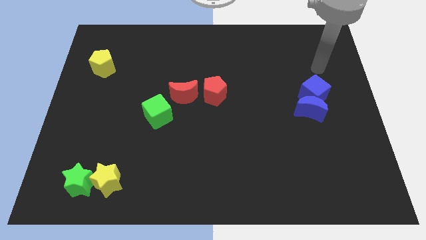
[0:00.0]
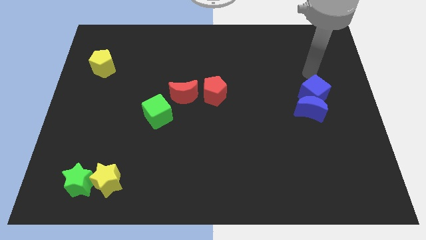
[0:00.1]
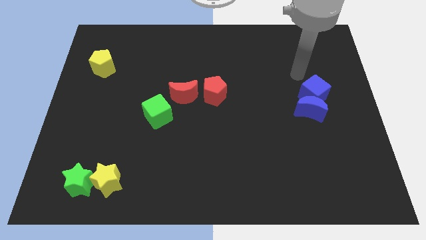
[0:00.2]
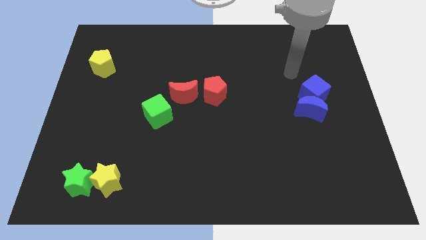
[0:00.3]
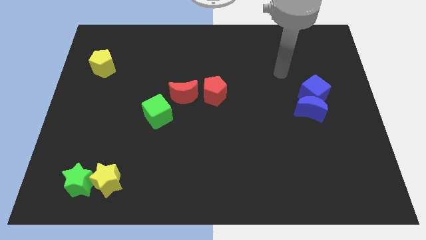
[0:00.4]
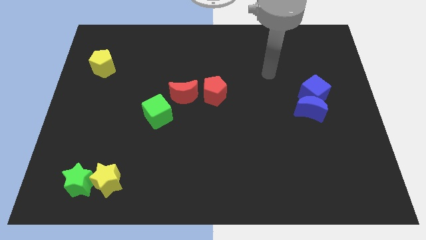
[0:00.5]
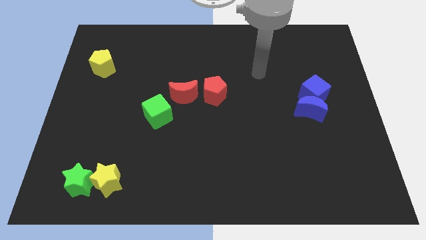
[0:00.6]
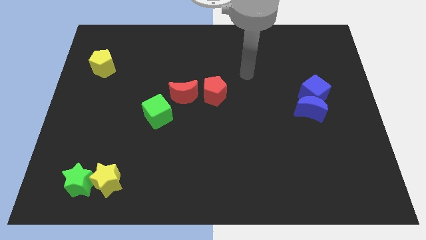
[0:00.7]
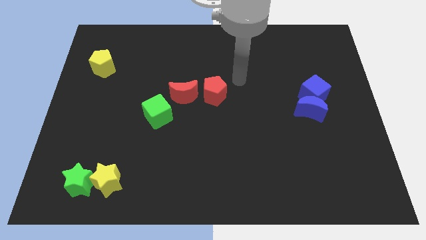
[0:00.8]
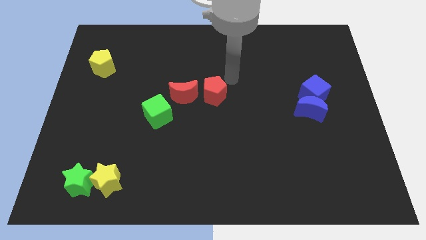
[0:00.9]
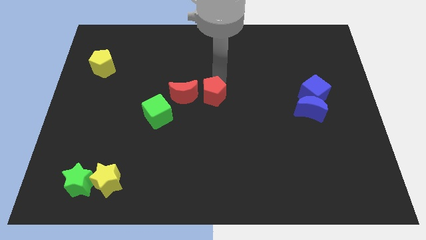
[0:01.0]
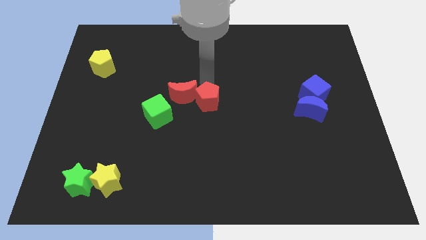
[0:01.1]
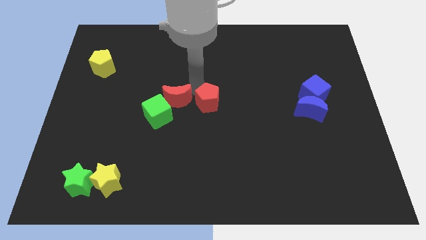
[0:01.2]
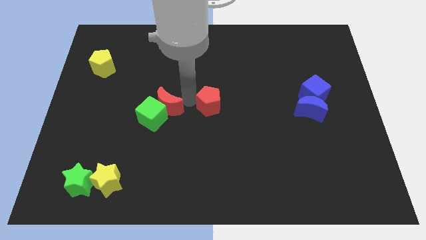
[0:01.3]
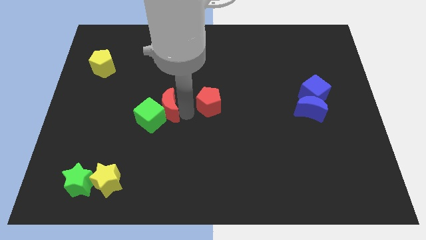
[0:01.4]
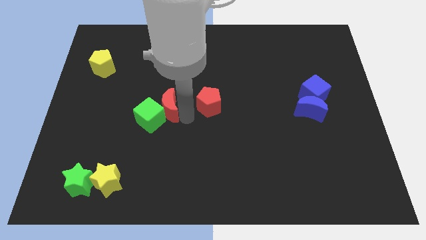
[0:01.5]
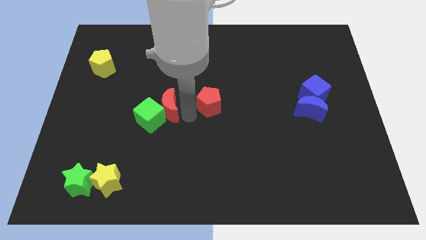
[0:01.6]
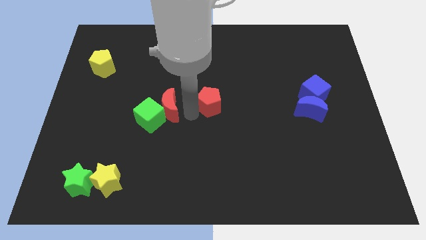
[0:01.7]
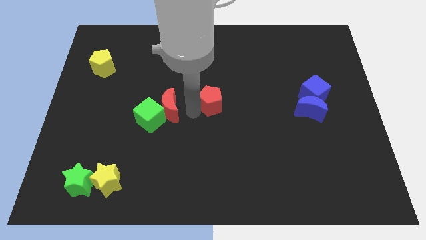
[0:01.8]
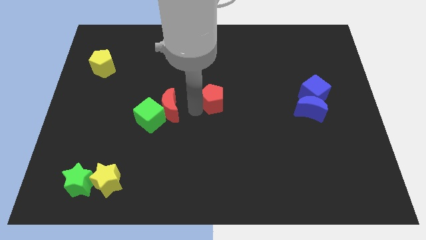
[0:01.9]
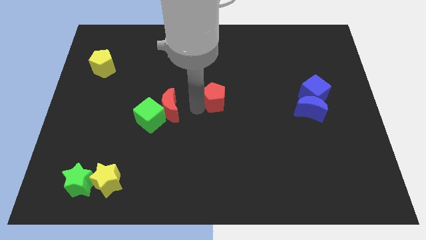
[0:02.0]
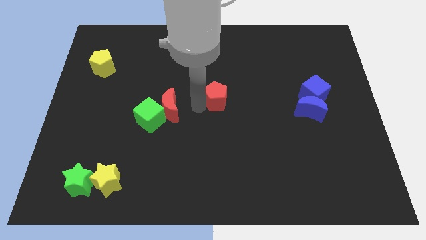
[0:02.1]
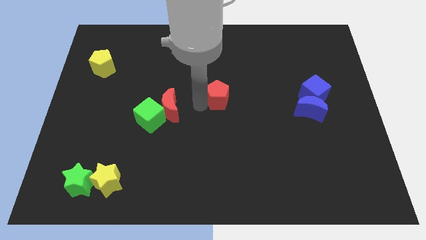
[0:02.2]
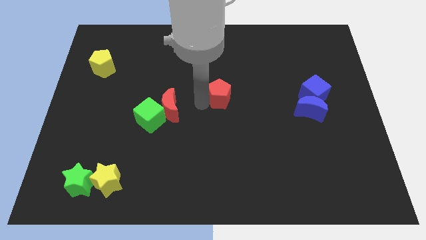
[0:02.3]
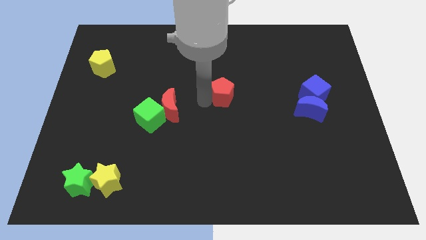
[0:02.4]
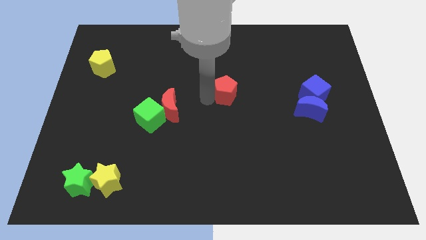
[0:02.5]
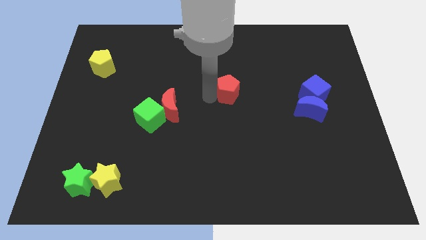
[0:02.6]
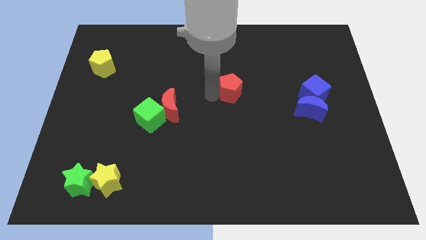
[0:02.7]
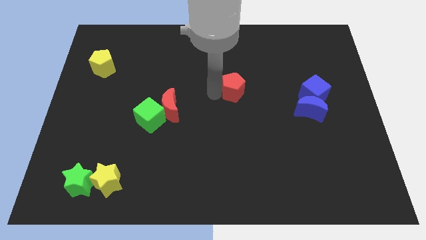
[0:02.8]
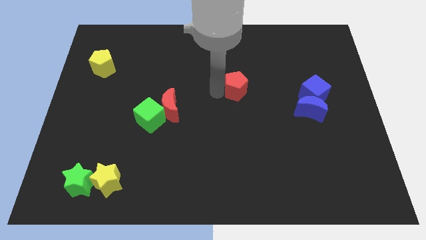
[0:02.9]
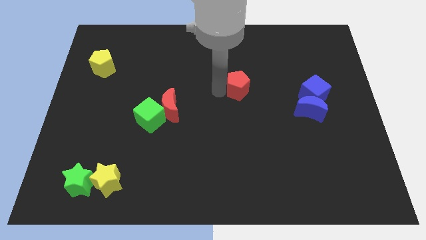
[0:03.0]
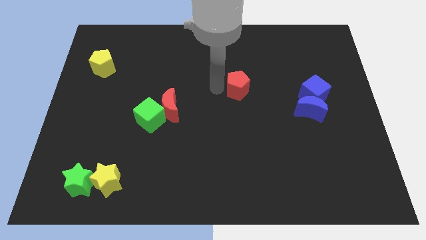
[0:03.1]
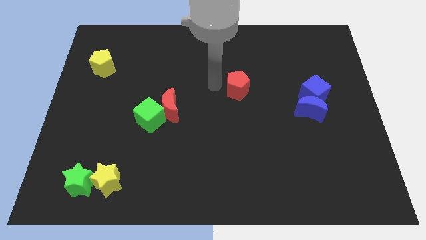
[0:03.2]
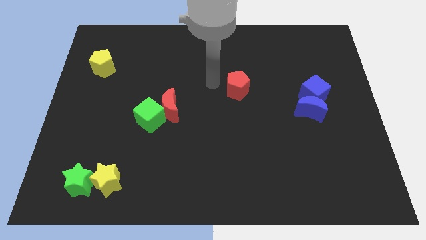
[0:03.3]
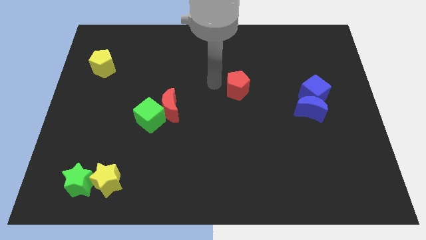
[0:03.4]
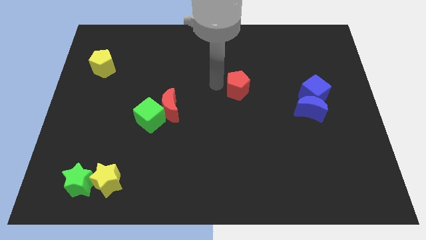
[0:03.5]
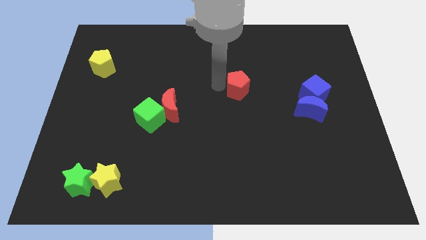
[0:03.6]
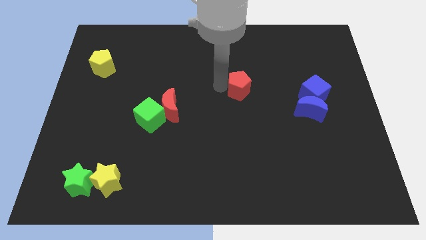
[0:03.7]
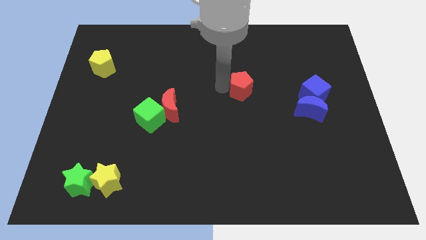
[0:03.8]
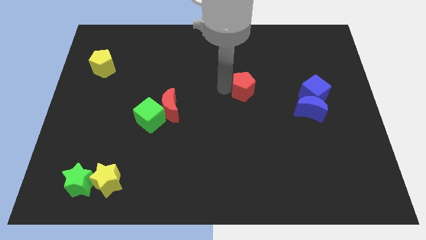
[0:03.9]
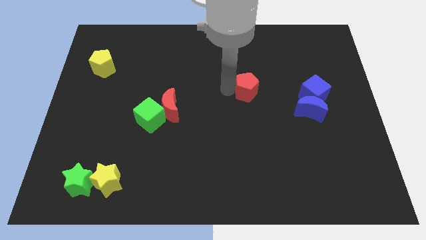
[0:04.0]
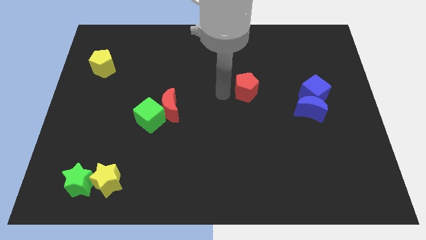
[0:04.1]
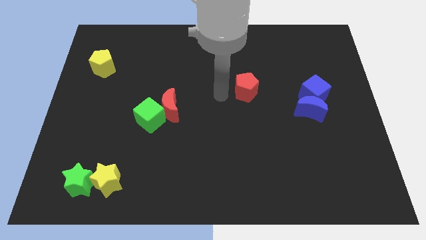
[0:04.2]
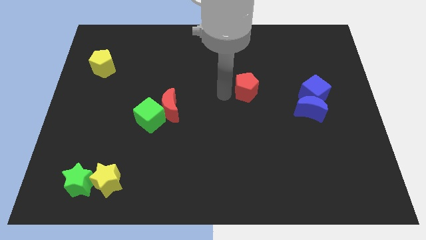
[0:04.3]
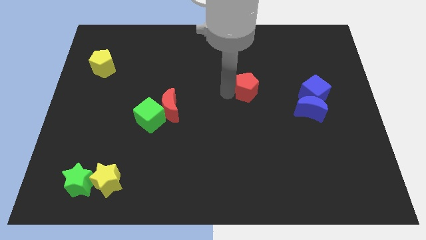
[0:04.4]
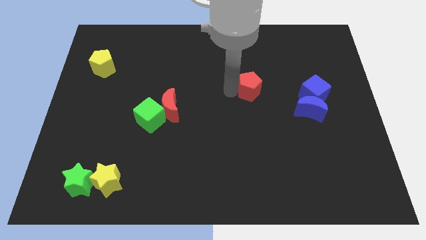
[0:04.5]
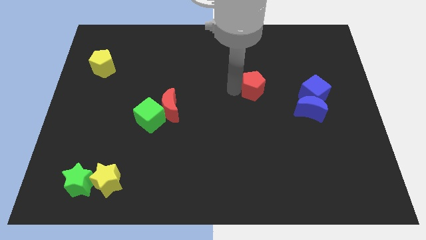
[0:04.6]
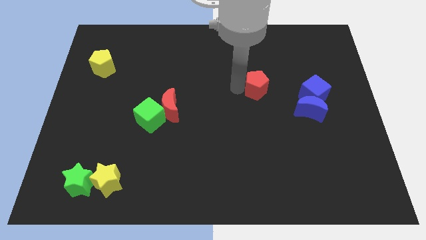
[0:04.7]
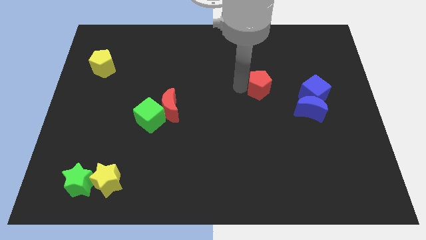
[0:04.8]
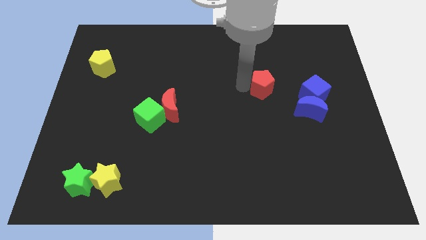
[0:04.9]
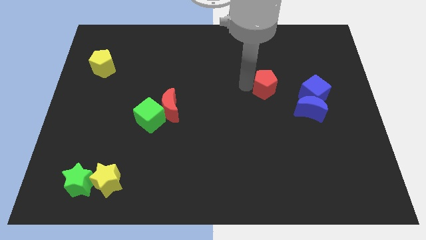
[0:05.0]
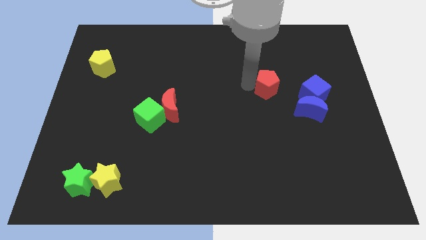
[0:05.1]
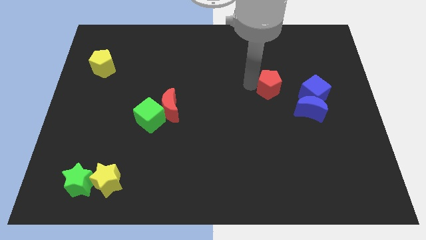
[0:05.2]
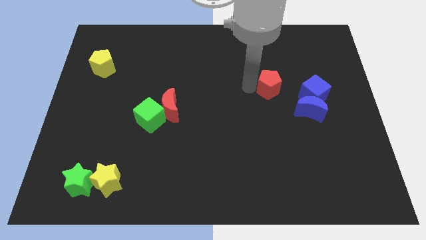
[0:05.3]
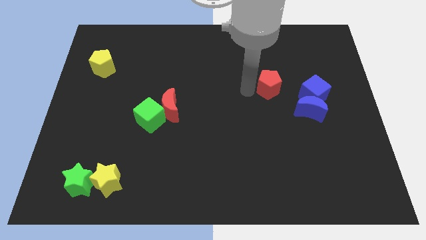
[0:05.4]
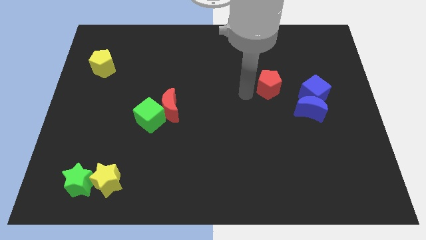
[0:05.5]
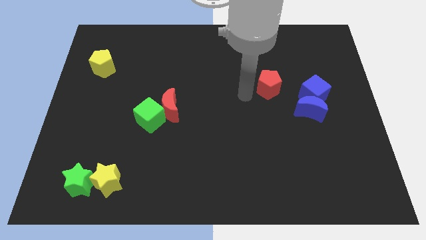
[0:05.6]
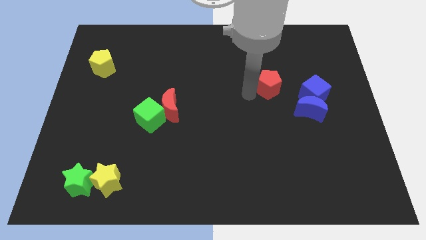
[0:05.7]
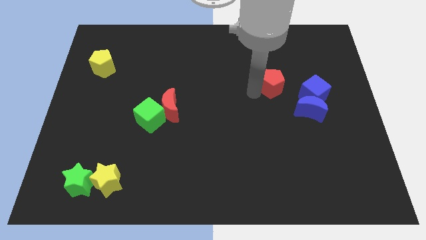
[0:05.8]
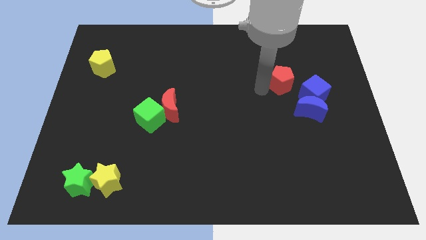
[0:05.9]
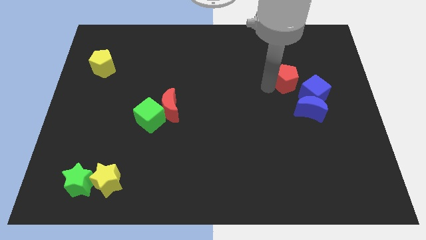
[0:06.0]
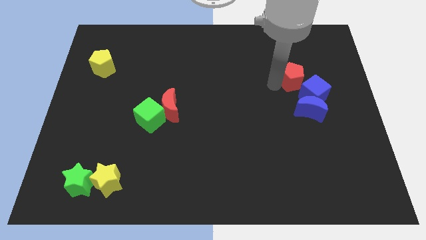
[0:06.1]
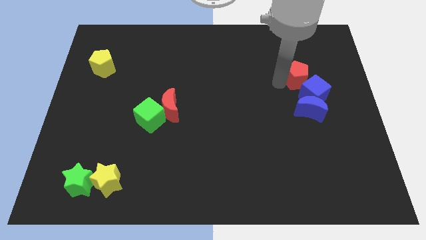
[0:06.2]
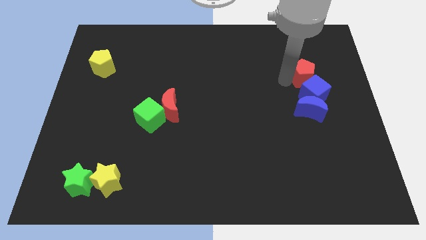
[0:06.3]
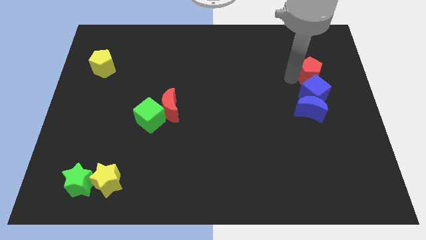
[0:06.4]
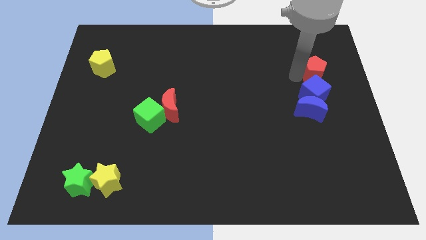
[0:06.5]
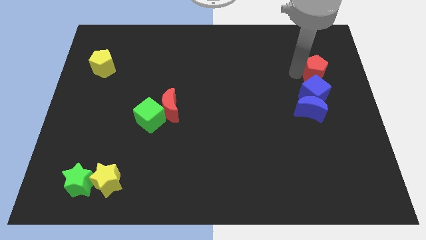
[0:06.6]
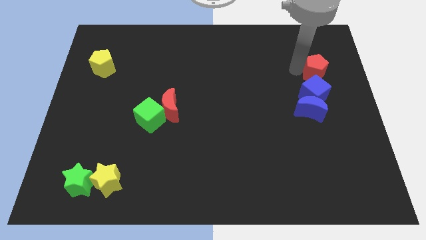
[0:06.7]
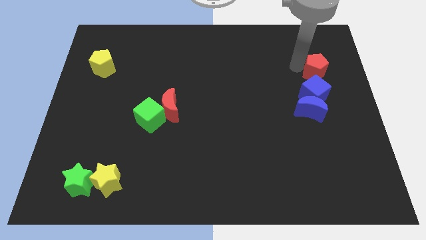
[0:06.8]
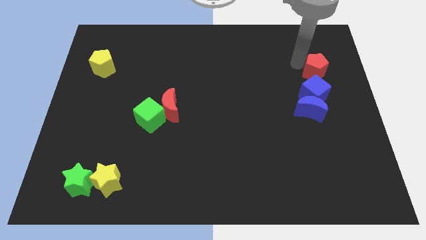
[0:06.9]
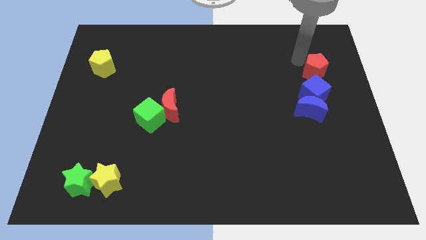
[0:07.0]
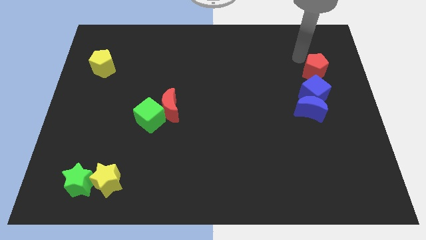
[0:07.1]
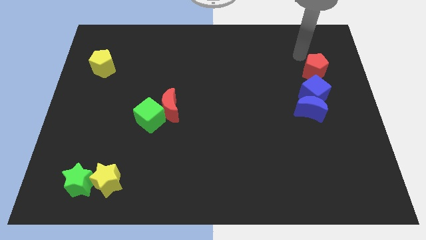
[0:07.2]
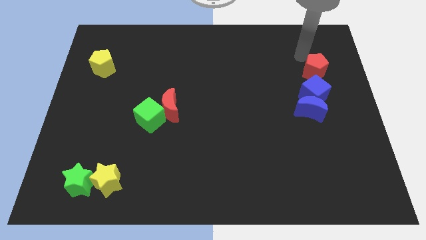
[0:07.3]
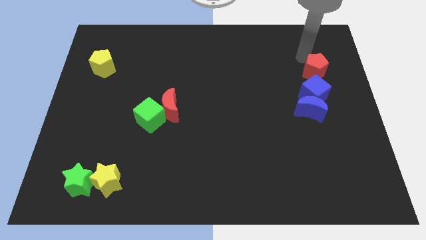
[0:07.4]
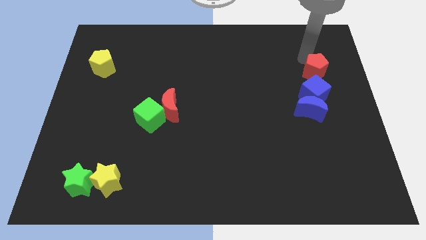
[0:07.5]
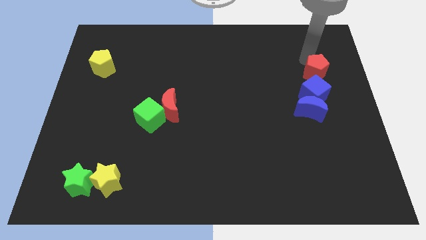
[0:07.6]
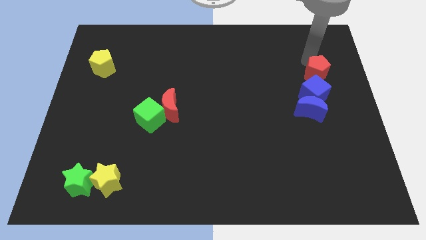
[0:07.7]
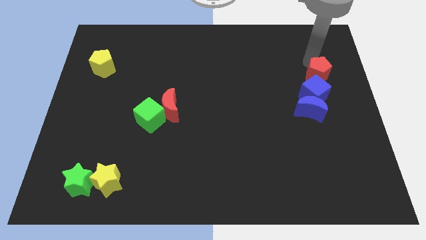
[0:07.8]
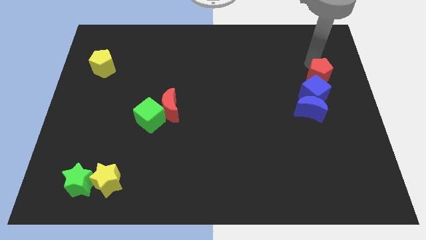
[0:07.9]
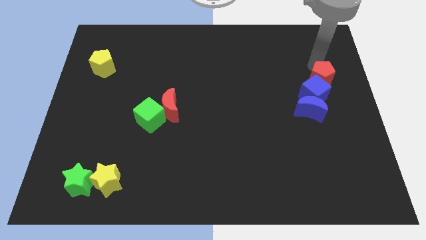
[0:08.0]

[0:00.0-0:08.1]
put the red pentagon to the right side of the board

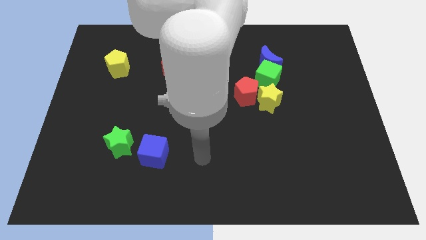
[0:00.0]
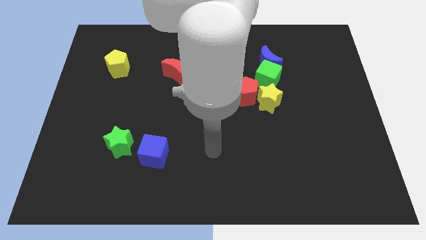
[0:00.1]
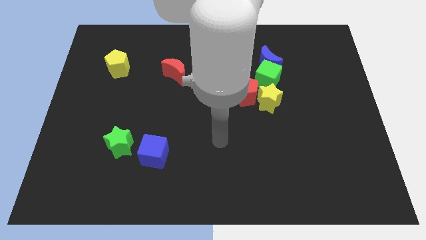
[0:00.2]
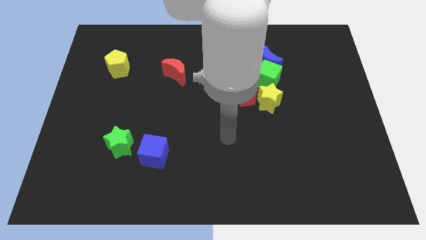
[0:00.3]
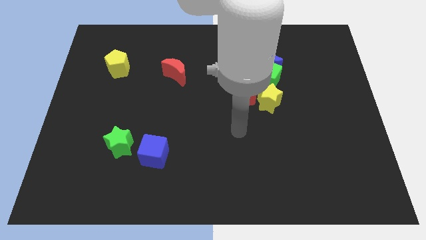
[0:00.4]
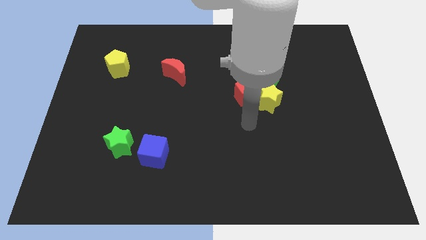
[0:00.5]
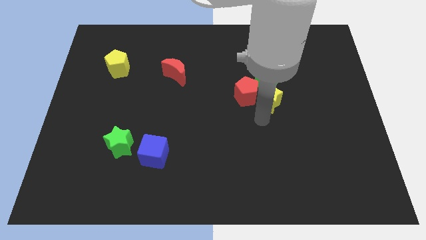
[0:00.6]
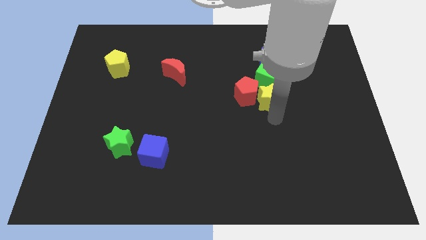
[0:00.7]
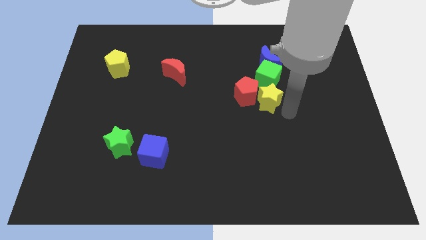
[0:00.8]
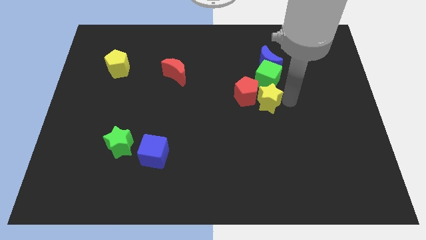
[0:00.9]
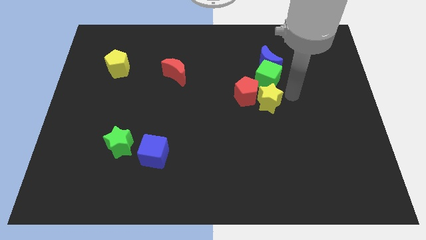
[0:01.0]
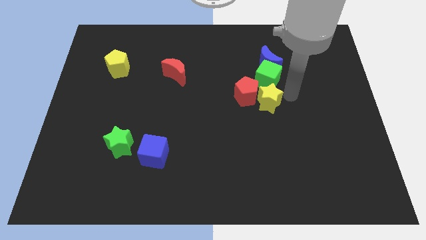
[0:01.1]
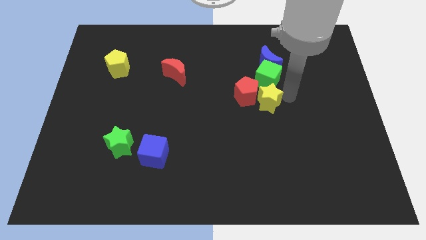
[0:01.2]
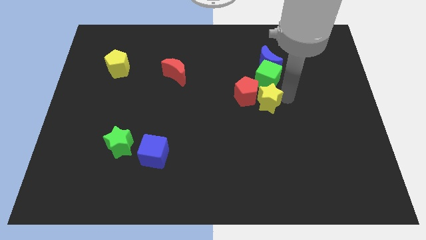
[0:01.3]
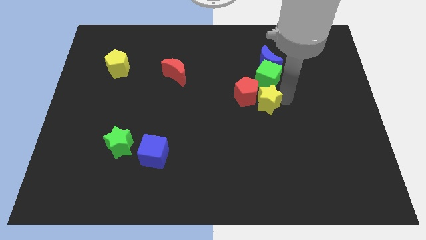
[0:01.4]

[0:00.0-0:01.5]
push the yellow star to the center of the board
